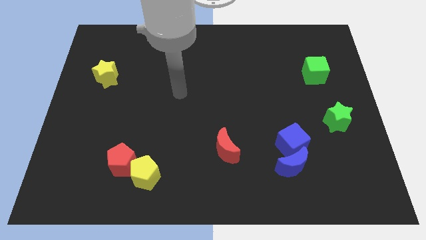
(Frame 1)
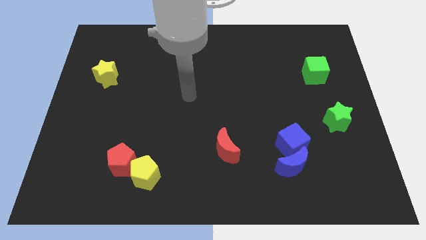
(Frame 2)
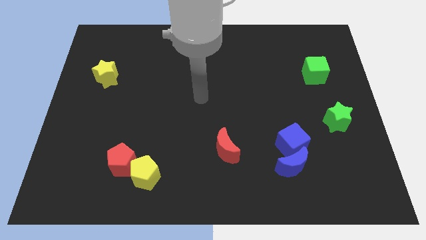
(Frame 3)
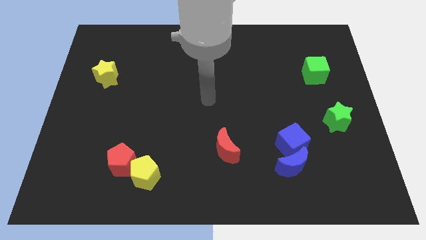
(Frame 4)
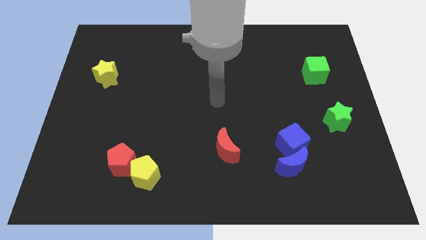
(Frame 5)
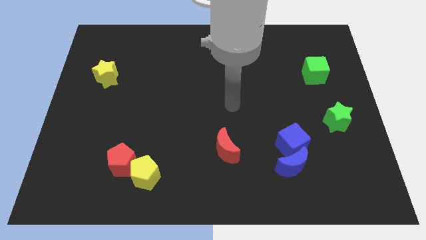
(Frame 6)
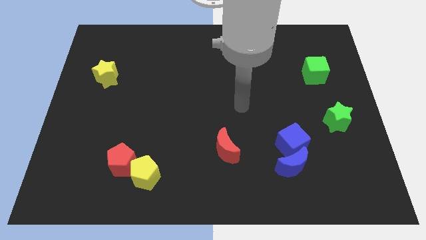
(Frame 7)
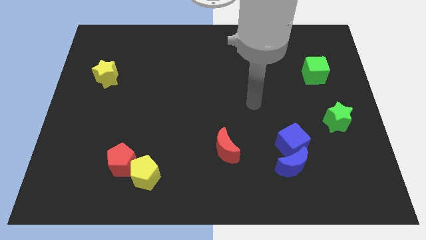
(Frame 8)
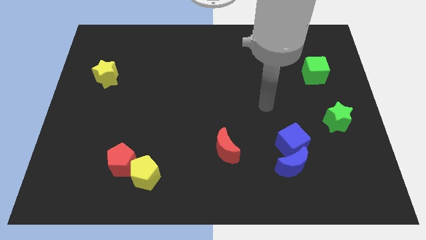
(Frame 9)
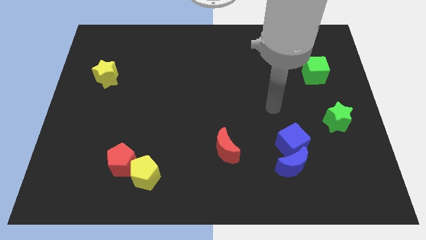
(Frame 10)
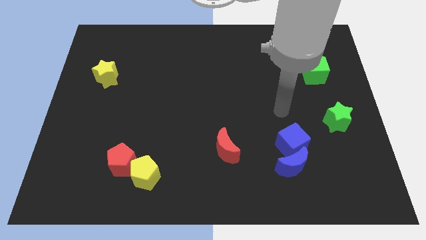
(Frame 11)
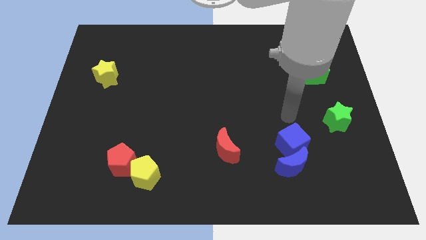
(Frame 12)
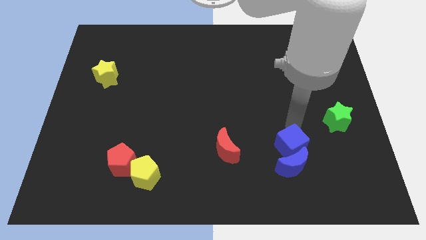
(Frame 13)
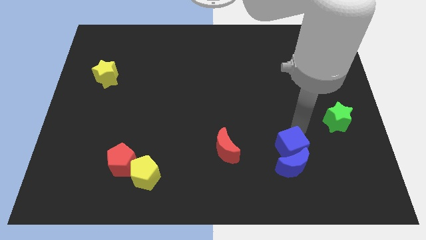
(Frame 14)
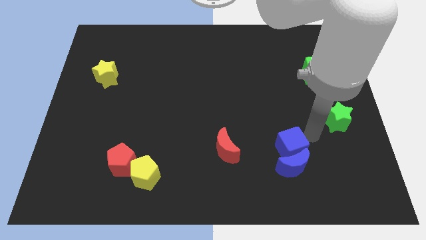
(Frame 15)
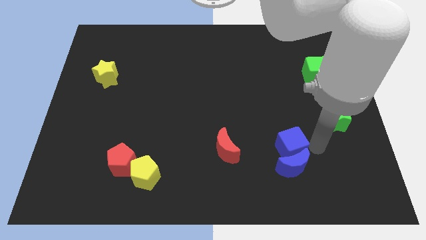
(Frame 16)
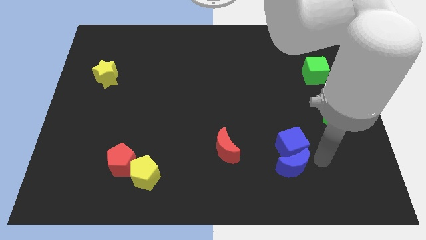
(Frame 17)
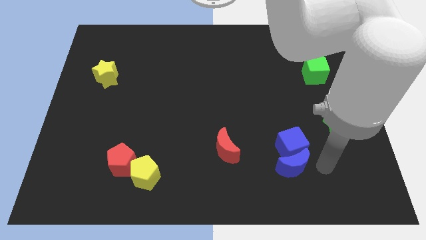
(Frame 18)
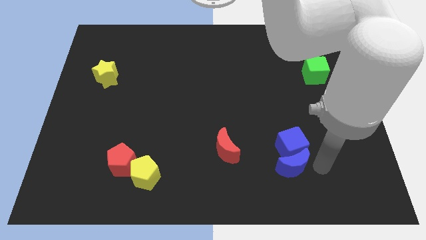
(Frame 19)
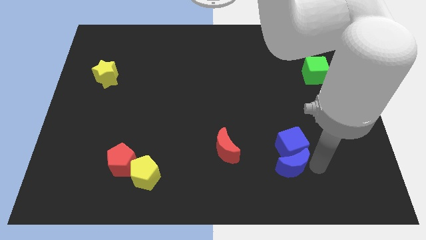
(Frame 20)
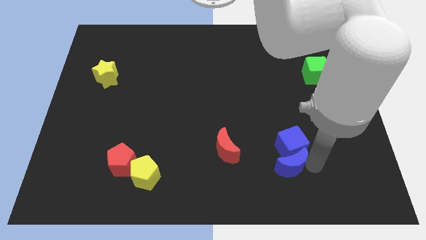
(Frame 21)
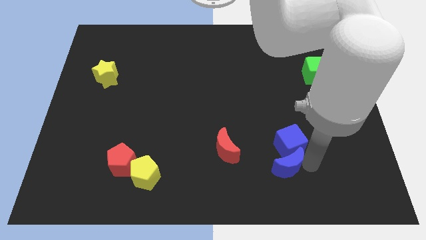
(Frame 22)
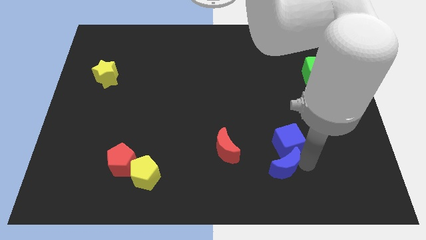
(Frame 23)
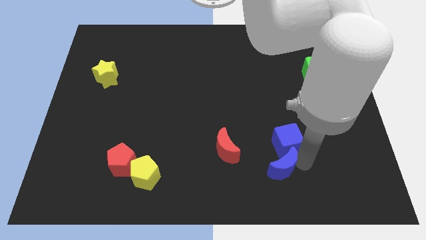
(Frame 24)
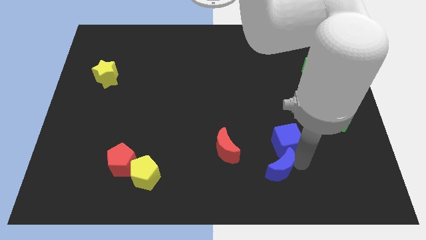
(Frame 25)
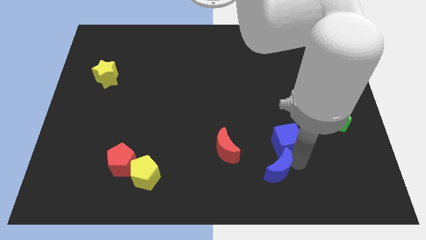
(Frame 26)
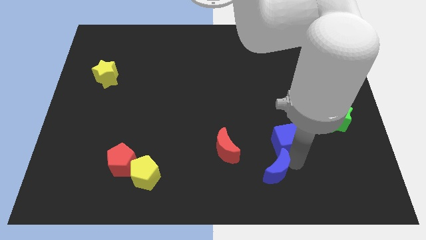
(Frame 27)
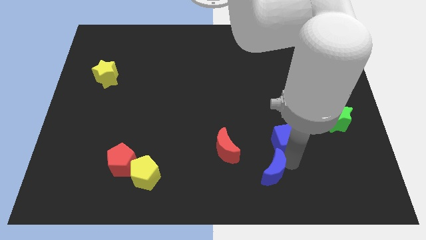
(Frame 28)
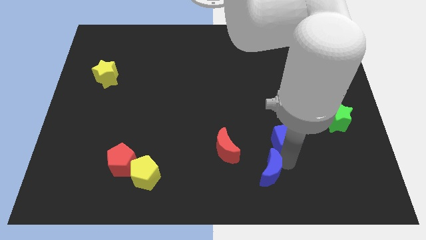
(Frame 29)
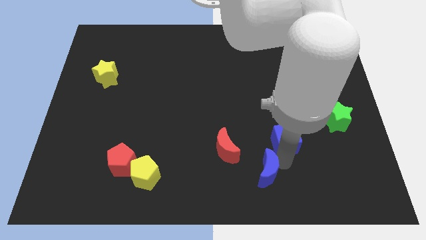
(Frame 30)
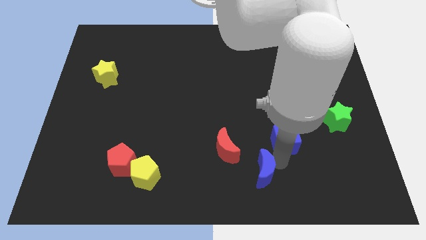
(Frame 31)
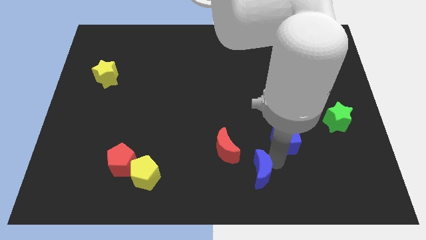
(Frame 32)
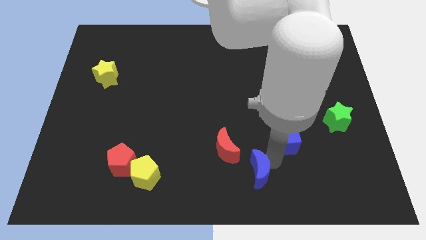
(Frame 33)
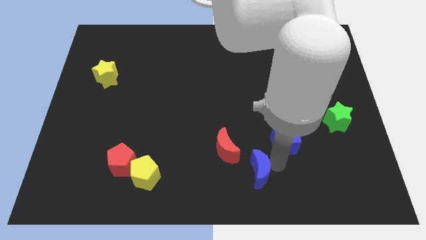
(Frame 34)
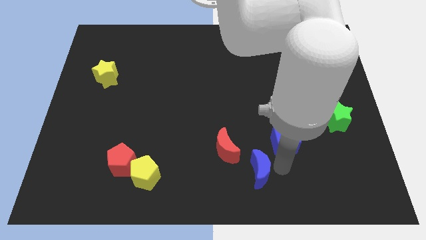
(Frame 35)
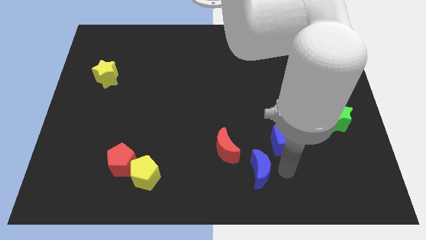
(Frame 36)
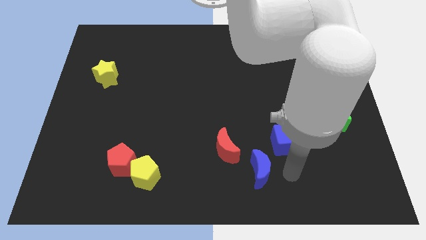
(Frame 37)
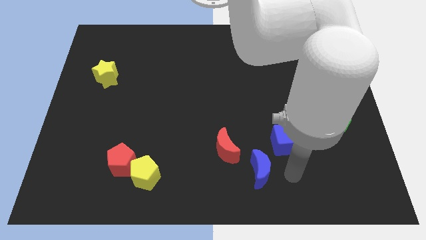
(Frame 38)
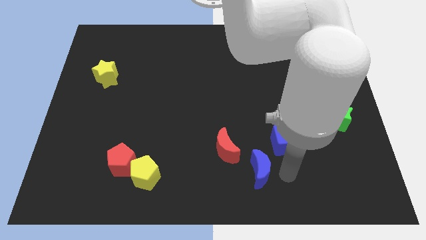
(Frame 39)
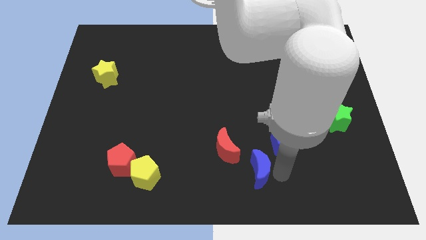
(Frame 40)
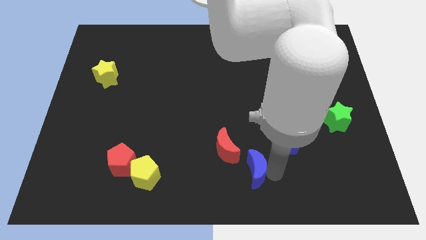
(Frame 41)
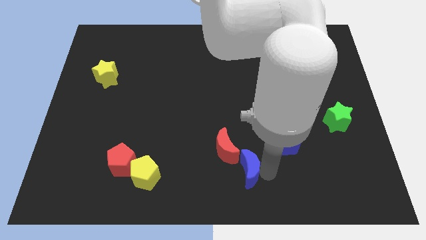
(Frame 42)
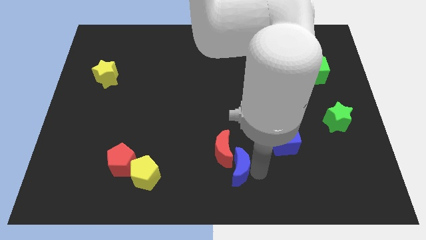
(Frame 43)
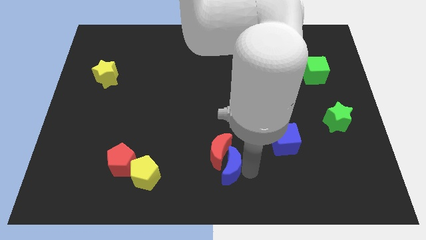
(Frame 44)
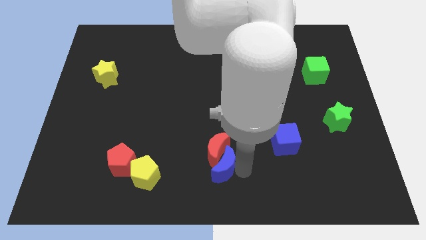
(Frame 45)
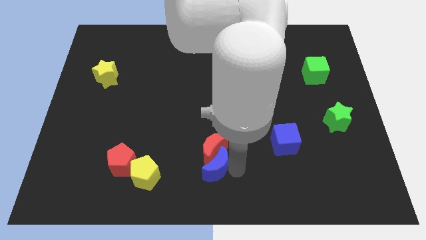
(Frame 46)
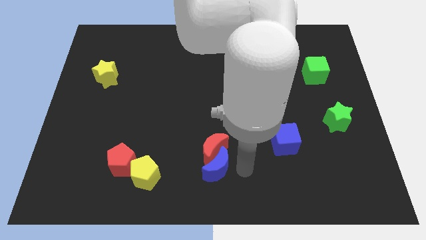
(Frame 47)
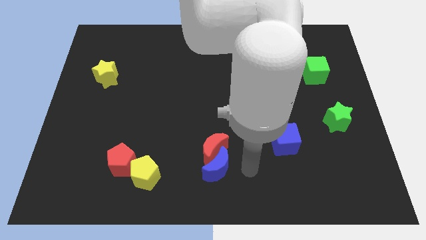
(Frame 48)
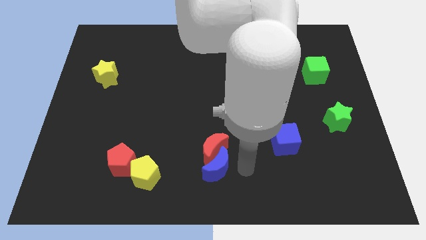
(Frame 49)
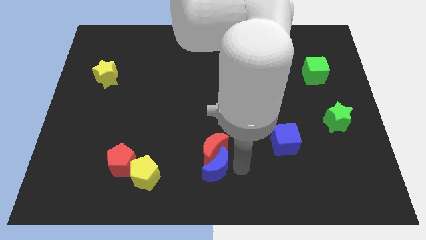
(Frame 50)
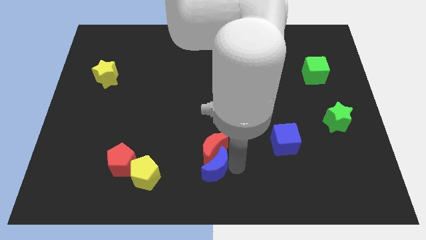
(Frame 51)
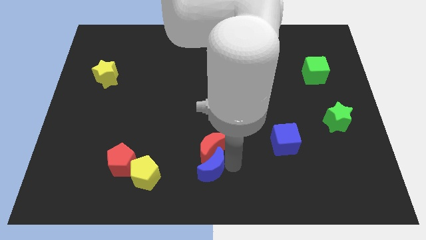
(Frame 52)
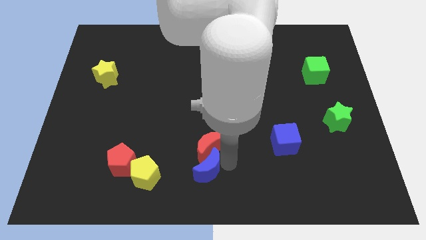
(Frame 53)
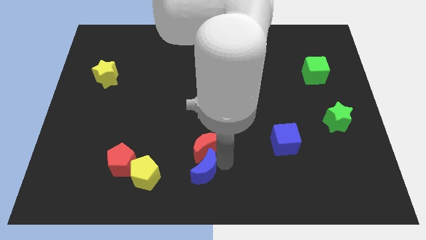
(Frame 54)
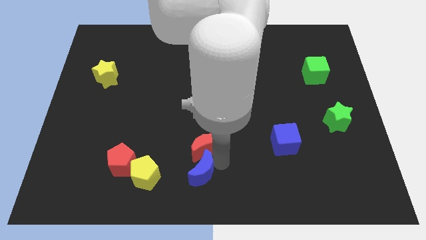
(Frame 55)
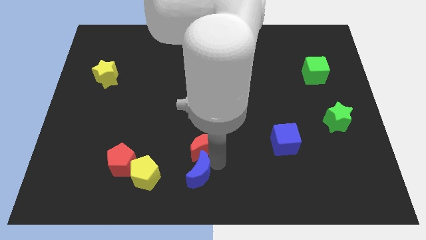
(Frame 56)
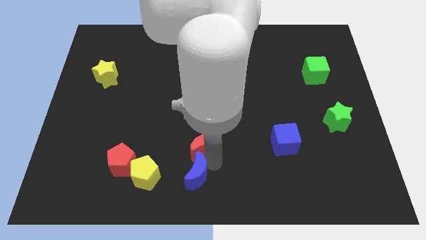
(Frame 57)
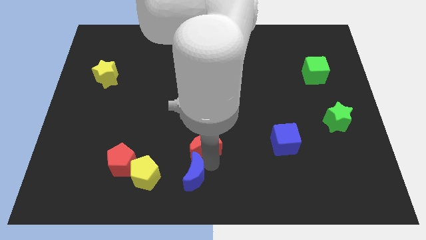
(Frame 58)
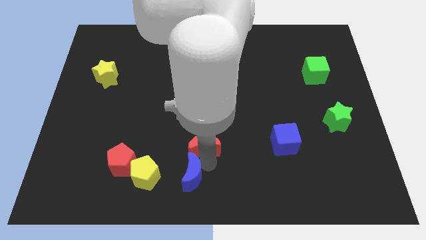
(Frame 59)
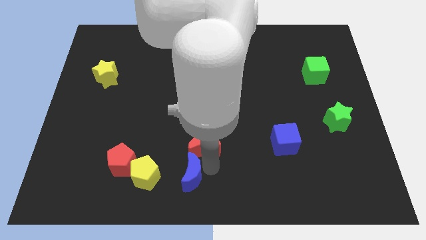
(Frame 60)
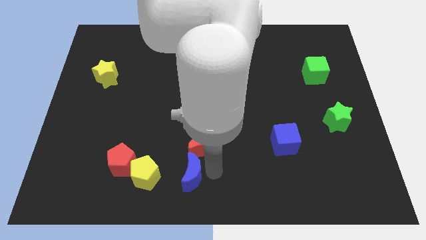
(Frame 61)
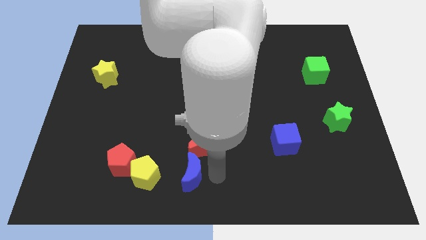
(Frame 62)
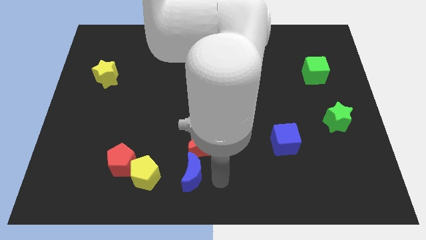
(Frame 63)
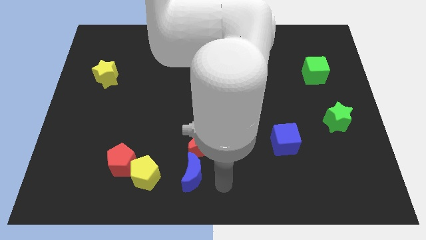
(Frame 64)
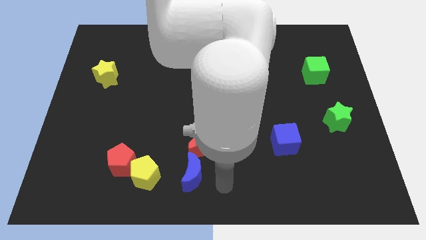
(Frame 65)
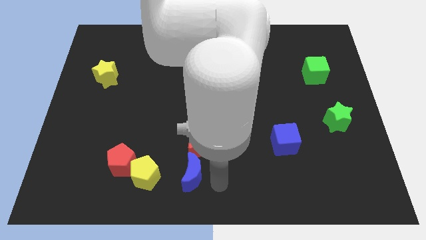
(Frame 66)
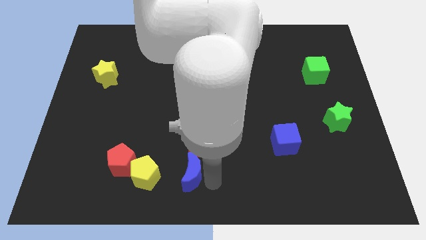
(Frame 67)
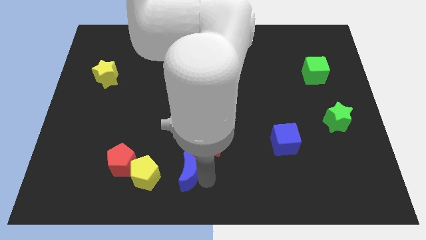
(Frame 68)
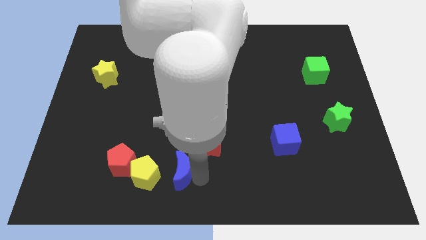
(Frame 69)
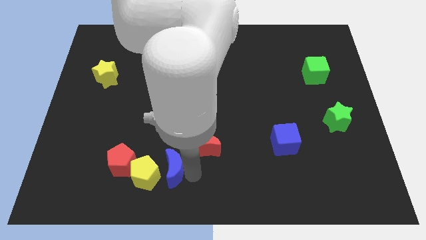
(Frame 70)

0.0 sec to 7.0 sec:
push the blue moon next to the yellow pentagon
